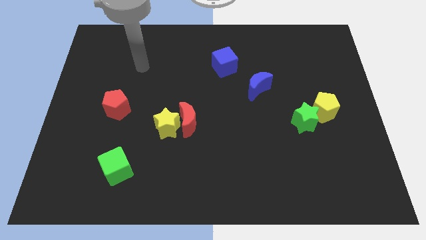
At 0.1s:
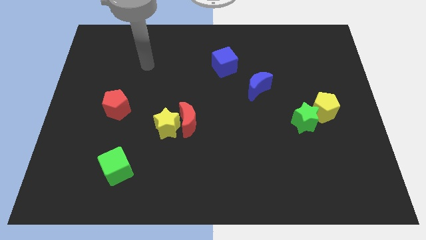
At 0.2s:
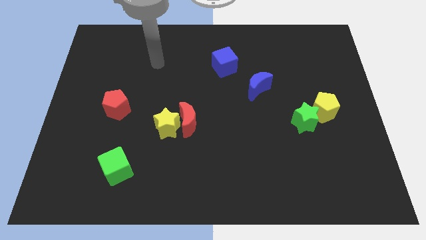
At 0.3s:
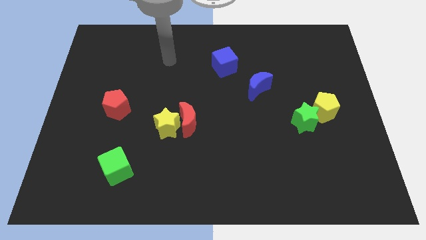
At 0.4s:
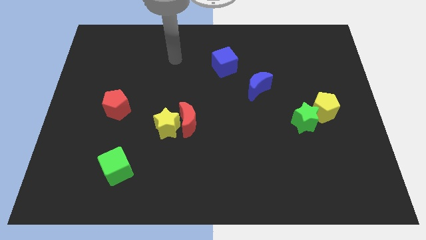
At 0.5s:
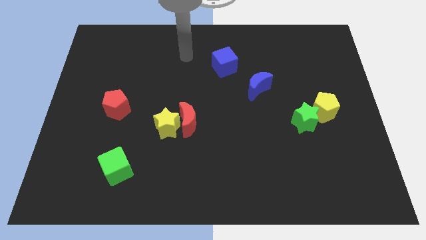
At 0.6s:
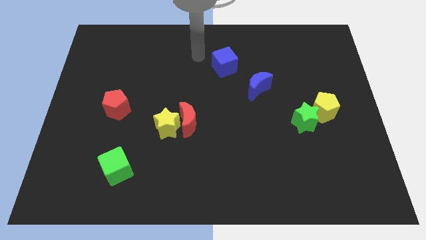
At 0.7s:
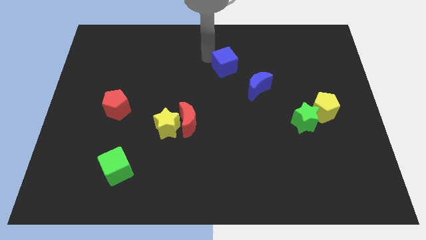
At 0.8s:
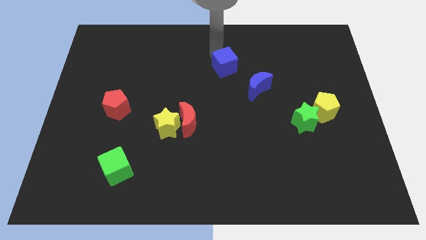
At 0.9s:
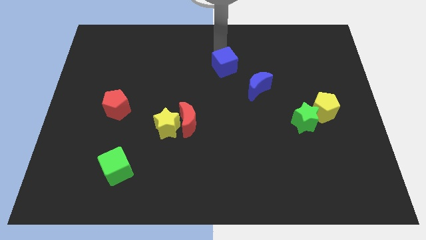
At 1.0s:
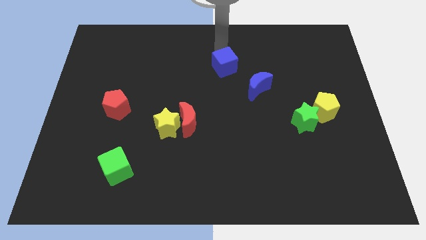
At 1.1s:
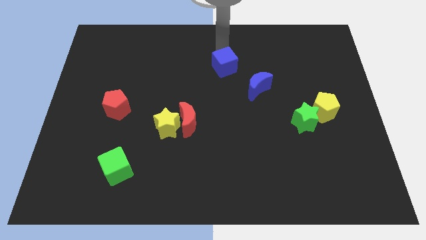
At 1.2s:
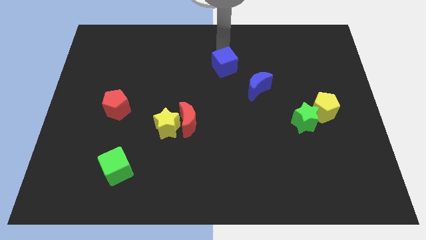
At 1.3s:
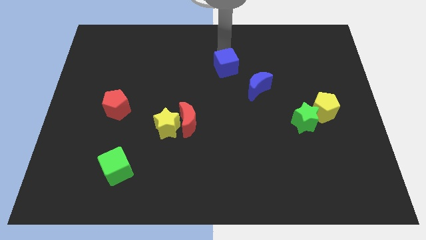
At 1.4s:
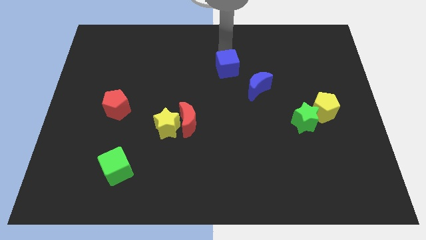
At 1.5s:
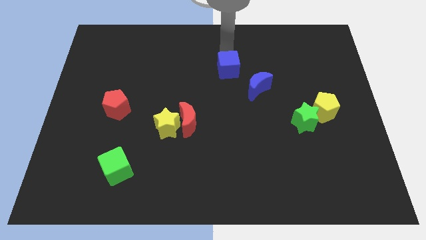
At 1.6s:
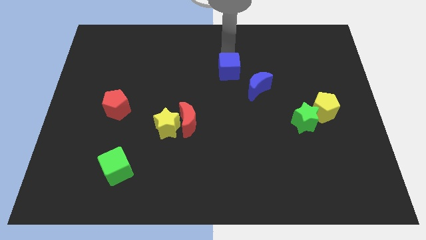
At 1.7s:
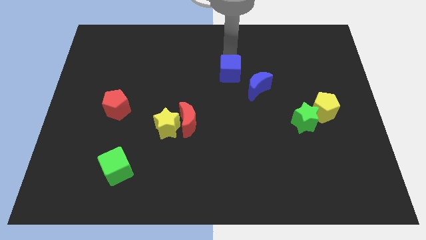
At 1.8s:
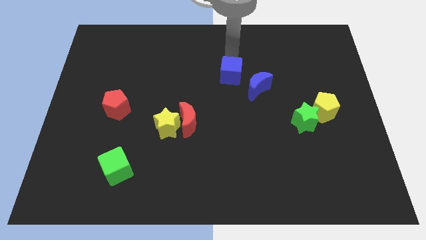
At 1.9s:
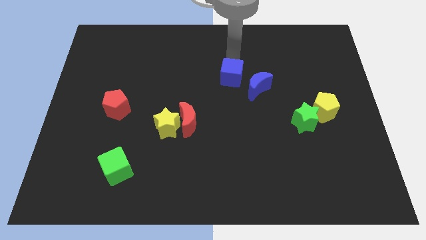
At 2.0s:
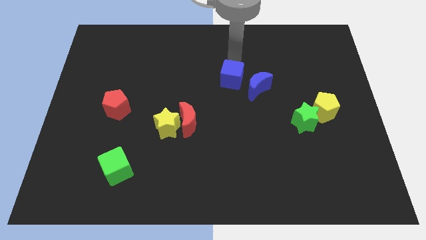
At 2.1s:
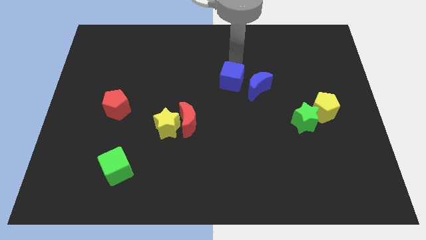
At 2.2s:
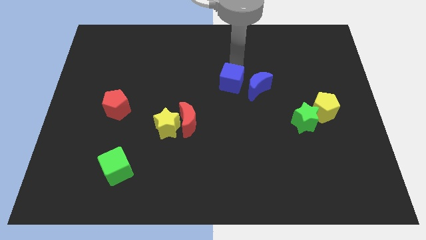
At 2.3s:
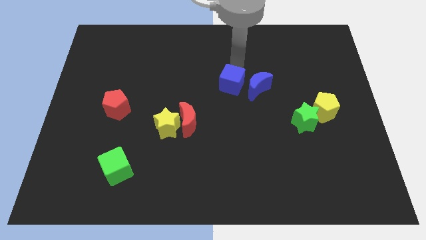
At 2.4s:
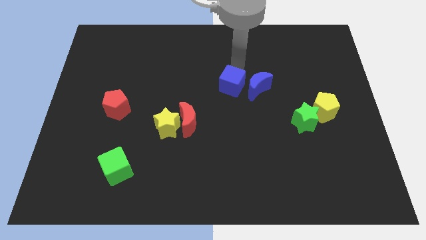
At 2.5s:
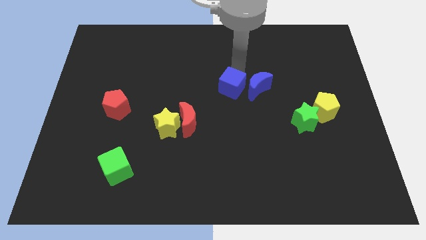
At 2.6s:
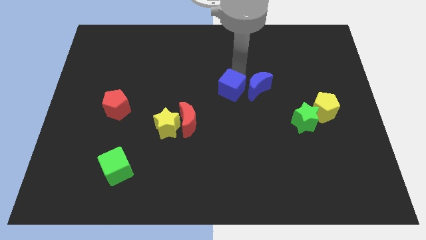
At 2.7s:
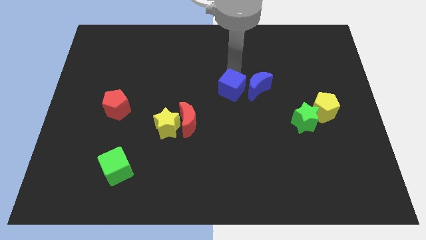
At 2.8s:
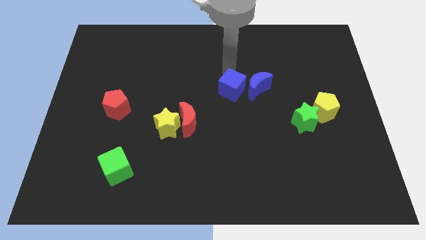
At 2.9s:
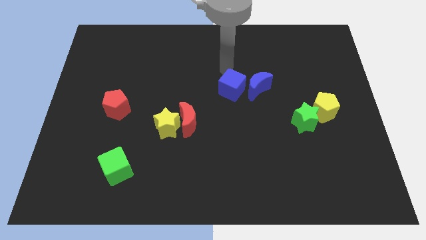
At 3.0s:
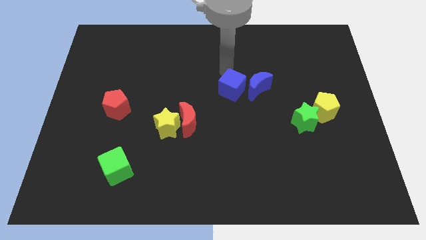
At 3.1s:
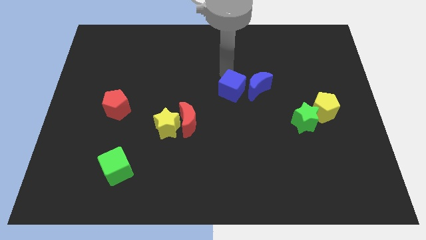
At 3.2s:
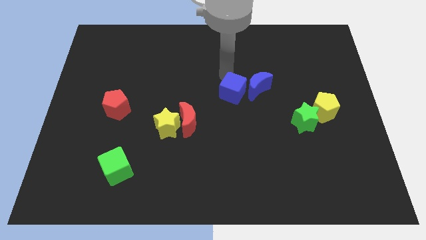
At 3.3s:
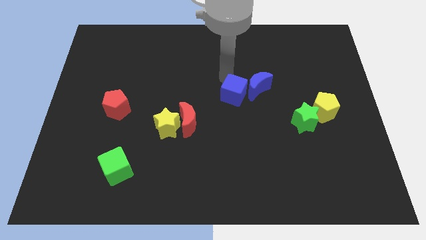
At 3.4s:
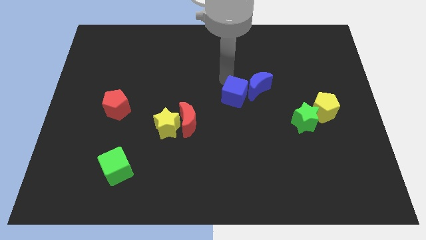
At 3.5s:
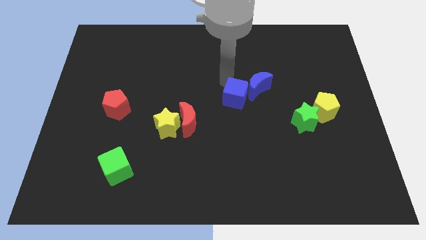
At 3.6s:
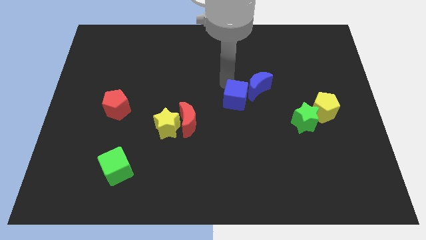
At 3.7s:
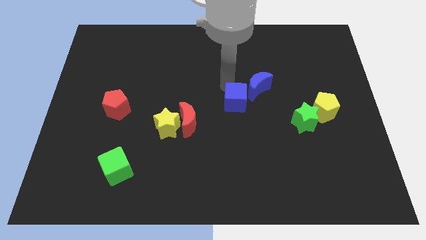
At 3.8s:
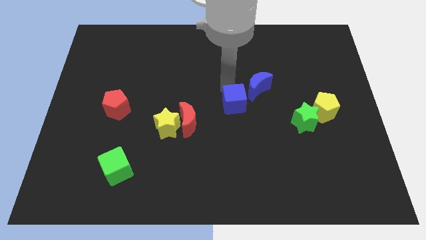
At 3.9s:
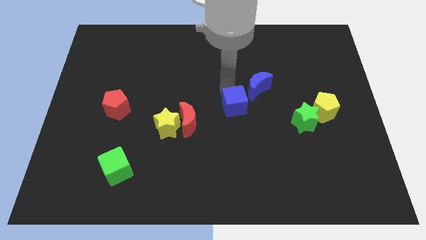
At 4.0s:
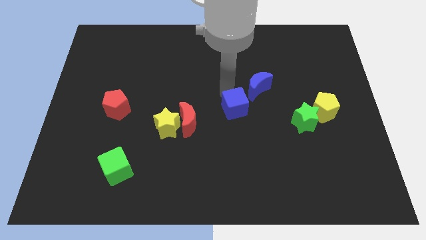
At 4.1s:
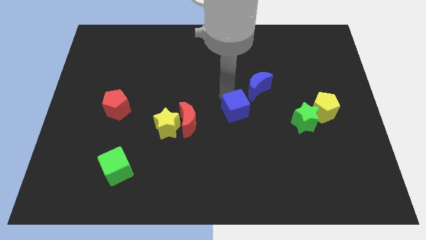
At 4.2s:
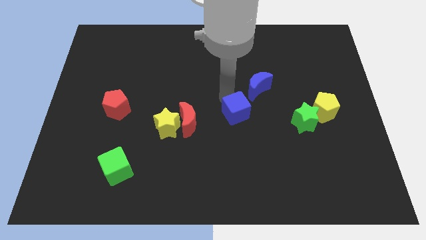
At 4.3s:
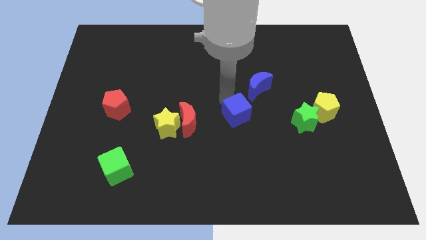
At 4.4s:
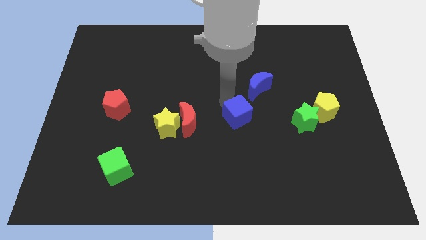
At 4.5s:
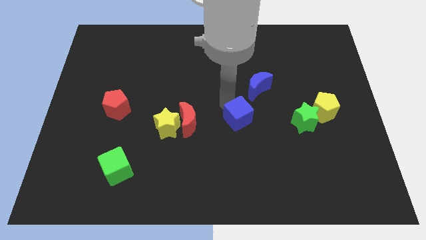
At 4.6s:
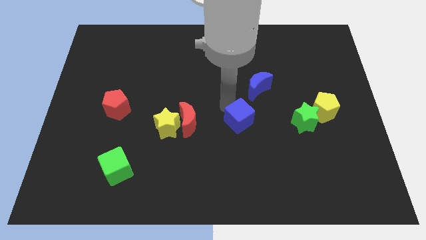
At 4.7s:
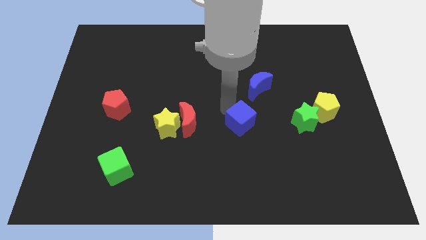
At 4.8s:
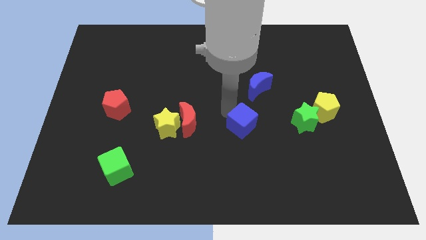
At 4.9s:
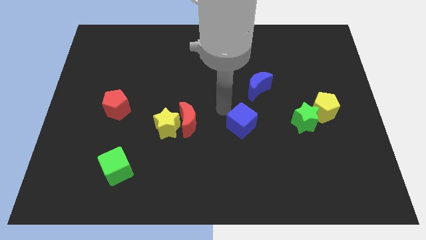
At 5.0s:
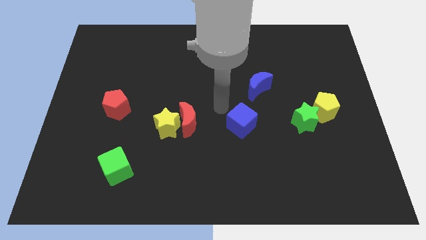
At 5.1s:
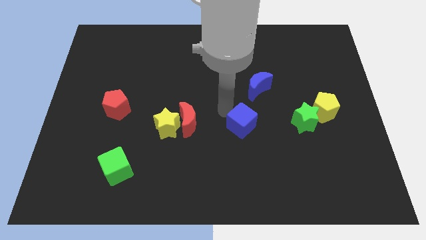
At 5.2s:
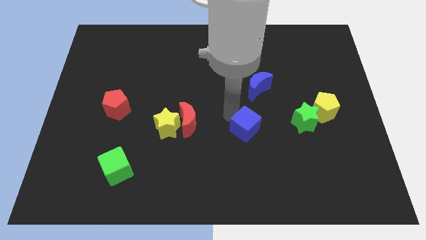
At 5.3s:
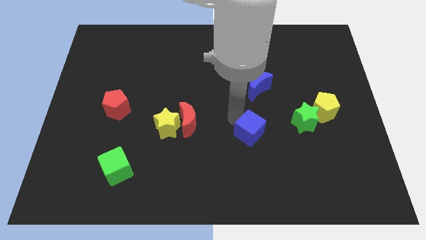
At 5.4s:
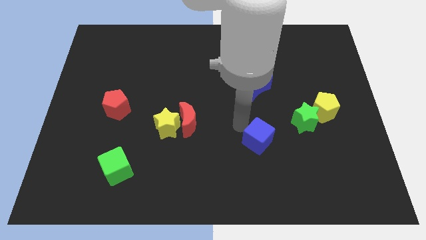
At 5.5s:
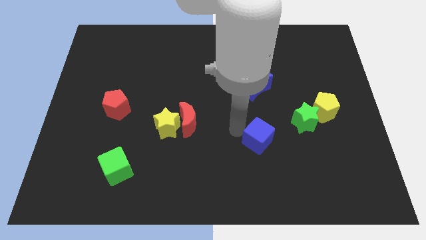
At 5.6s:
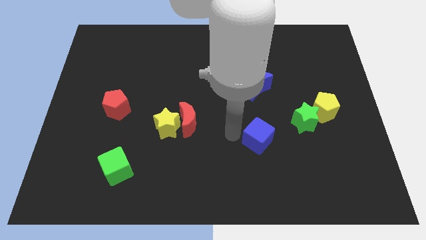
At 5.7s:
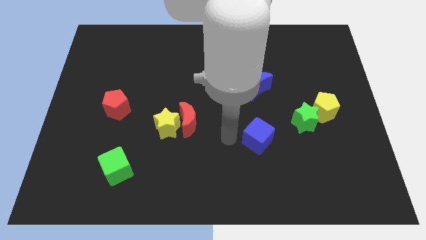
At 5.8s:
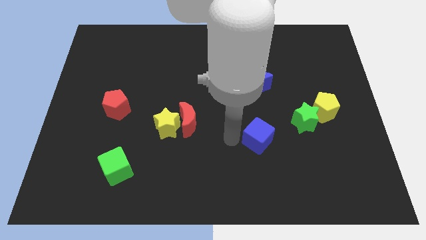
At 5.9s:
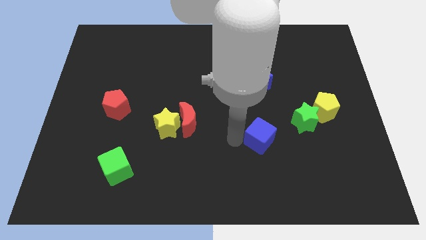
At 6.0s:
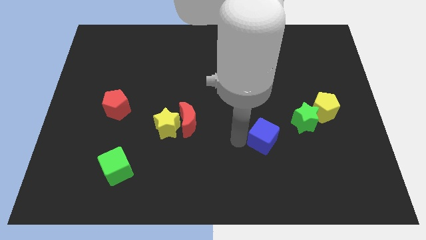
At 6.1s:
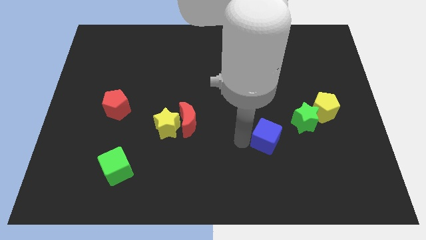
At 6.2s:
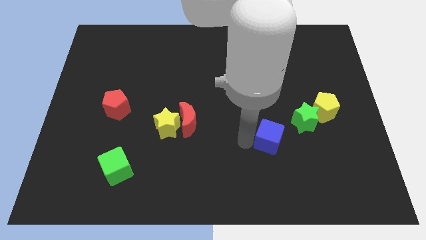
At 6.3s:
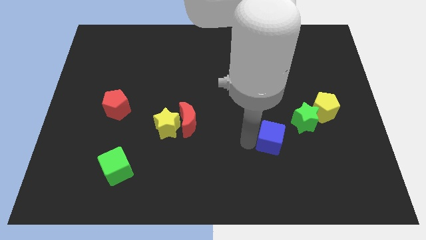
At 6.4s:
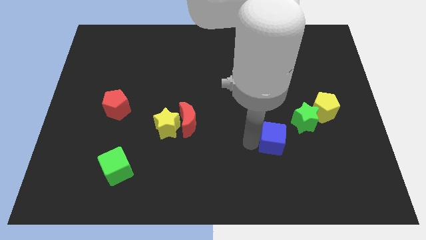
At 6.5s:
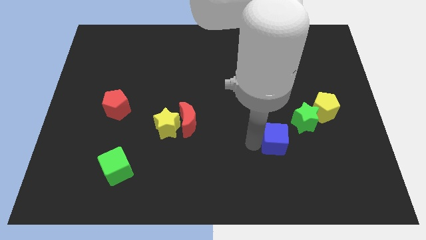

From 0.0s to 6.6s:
push the blue cube down and then right

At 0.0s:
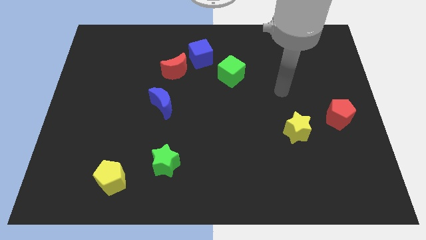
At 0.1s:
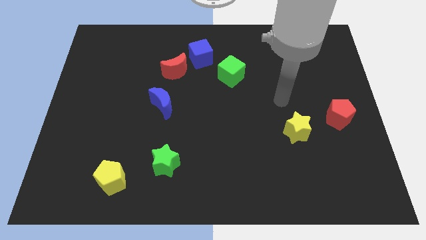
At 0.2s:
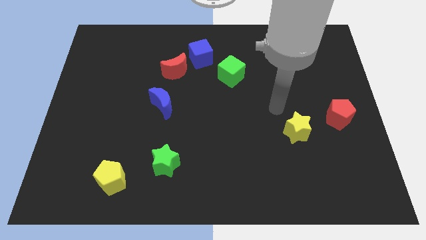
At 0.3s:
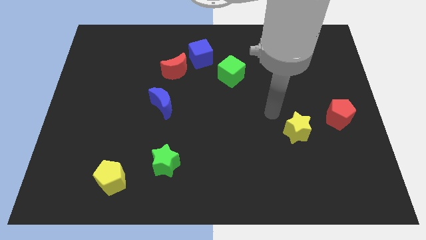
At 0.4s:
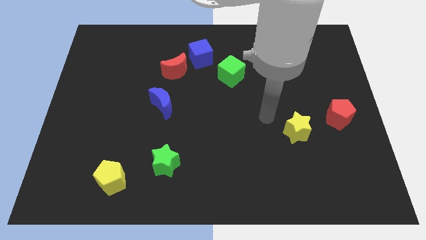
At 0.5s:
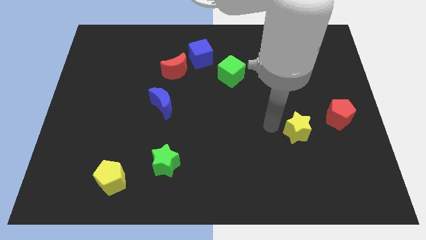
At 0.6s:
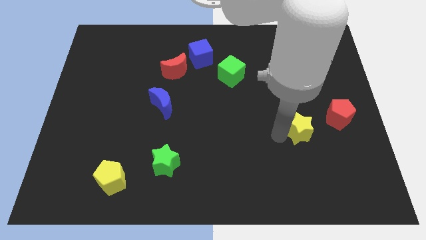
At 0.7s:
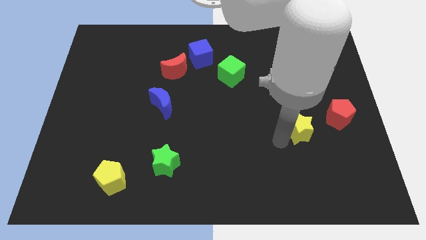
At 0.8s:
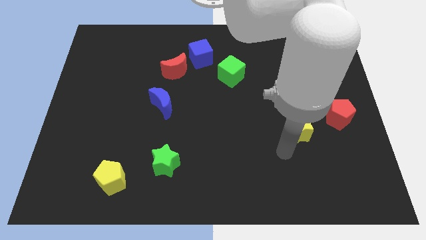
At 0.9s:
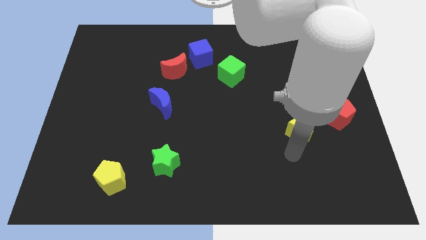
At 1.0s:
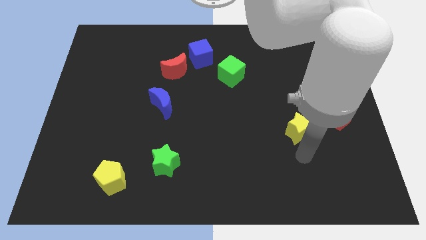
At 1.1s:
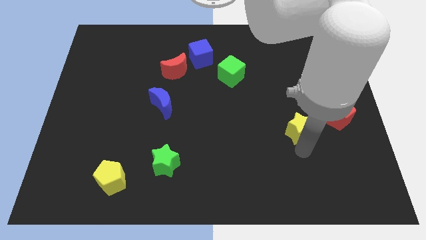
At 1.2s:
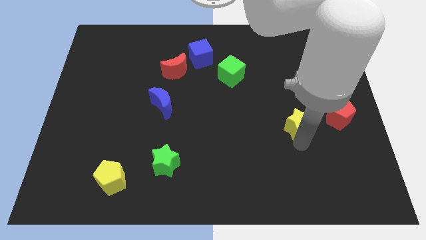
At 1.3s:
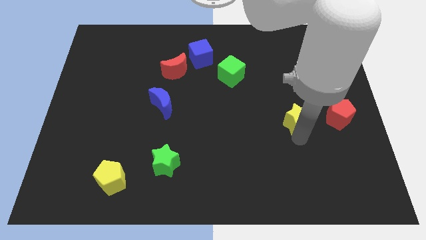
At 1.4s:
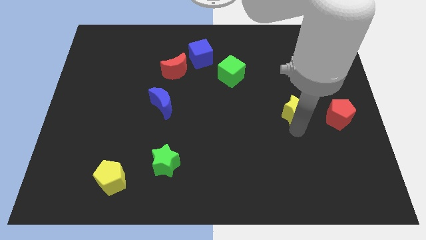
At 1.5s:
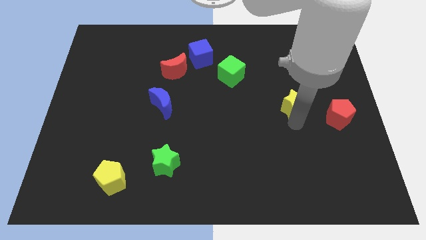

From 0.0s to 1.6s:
push the yellow star upwards somewhat

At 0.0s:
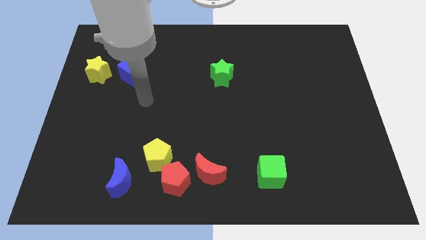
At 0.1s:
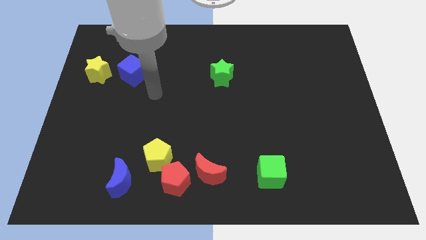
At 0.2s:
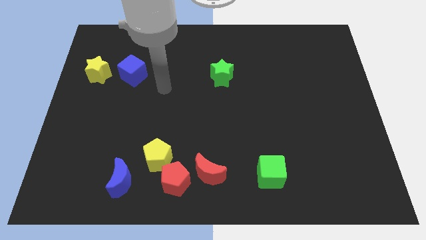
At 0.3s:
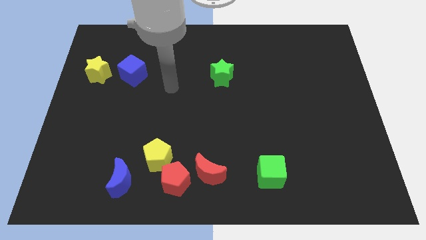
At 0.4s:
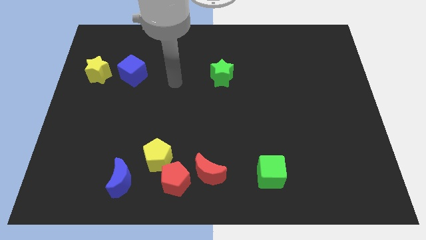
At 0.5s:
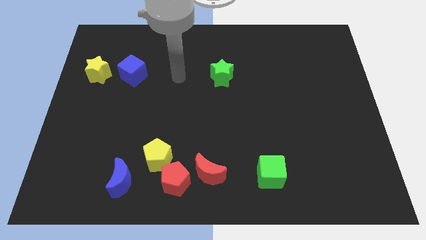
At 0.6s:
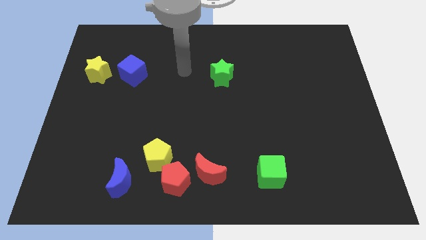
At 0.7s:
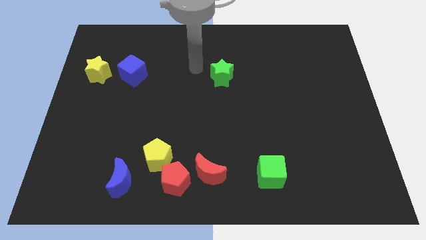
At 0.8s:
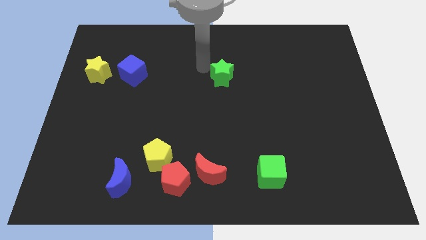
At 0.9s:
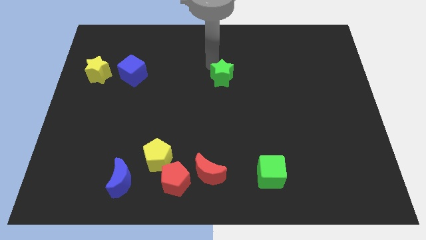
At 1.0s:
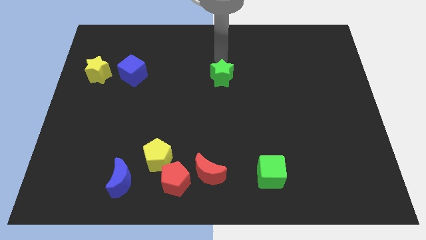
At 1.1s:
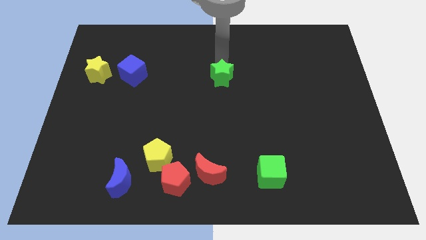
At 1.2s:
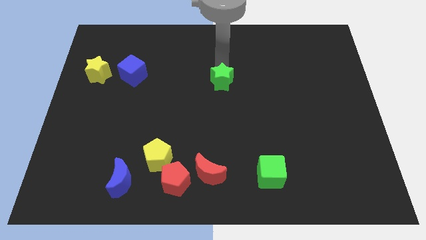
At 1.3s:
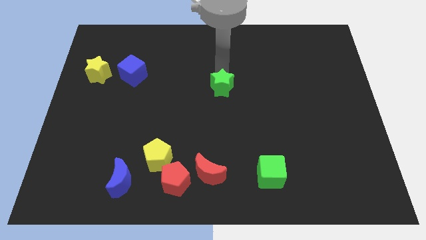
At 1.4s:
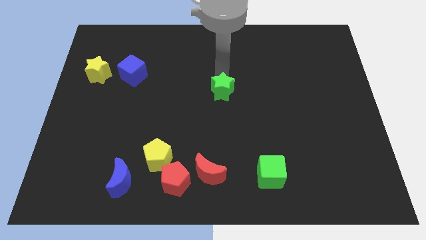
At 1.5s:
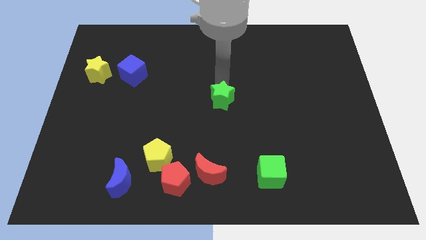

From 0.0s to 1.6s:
slightly push the green star down
